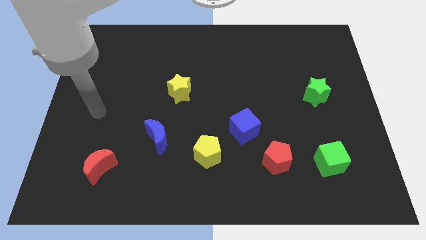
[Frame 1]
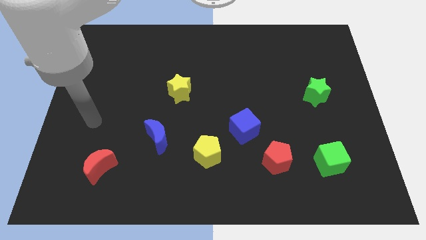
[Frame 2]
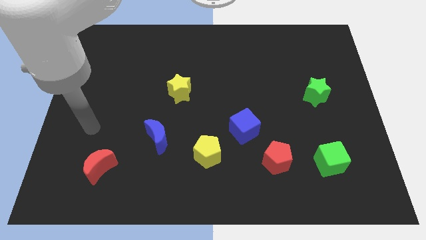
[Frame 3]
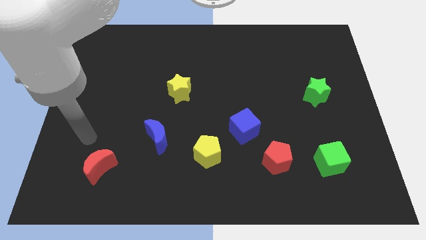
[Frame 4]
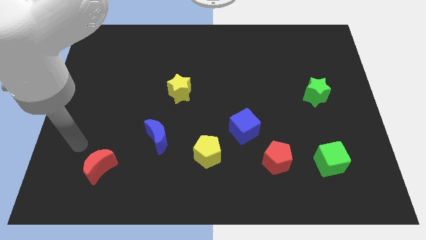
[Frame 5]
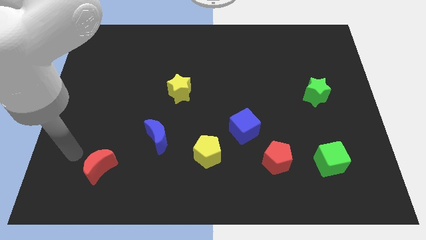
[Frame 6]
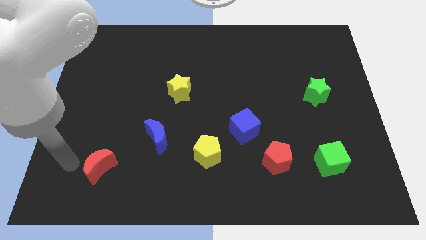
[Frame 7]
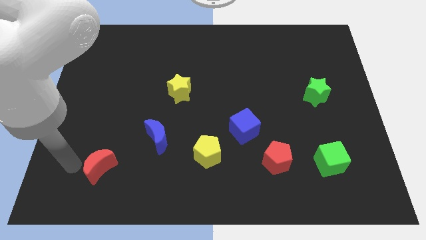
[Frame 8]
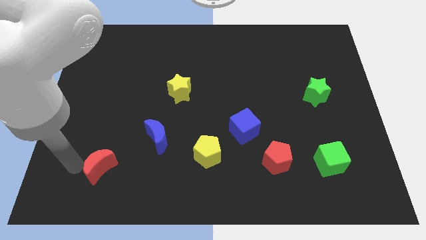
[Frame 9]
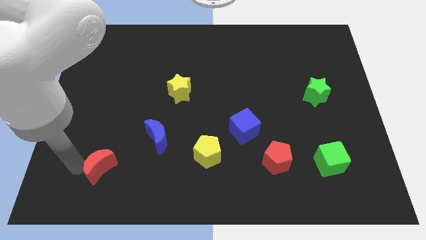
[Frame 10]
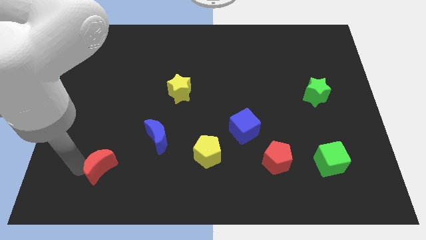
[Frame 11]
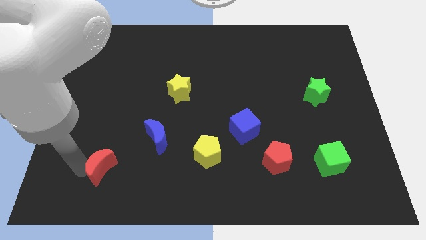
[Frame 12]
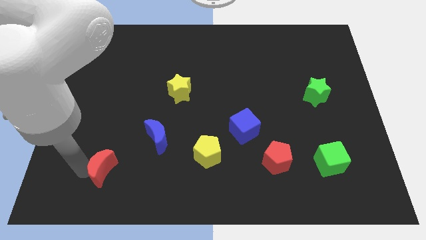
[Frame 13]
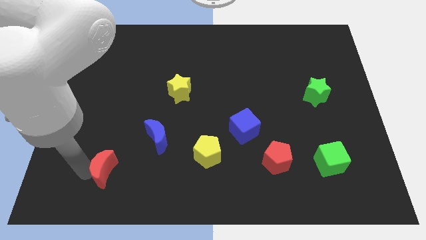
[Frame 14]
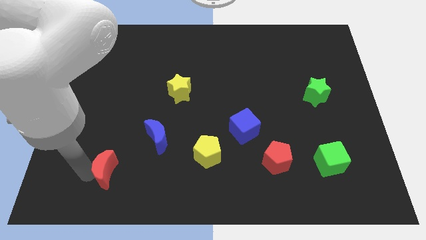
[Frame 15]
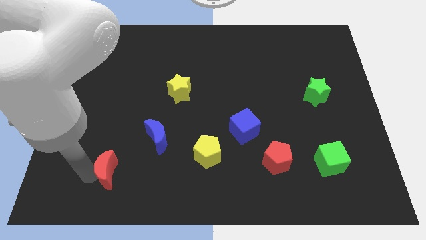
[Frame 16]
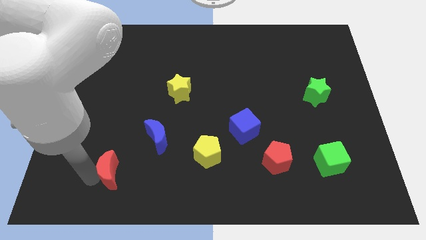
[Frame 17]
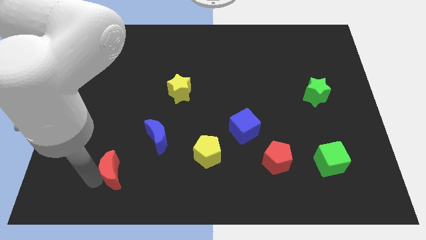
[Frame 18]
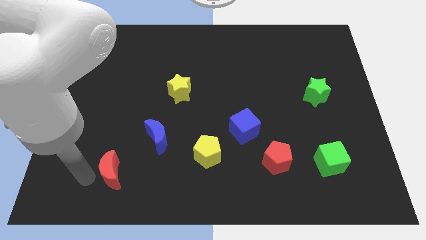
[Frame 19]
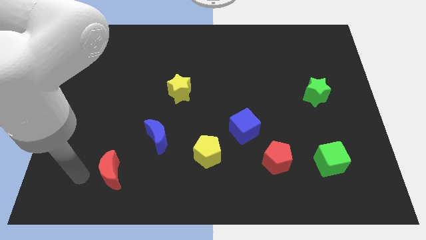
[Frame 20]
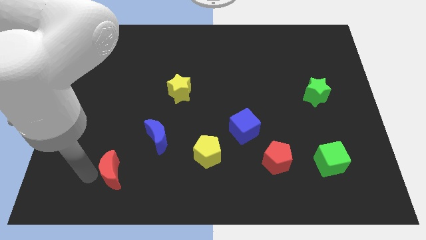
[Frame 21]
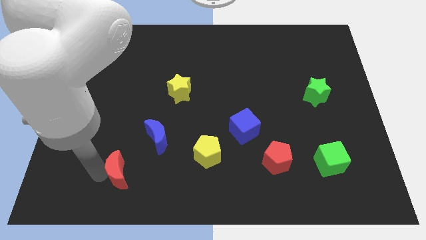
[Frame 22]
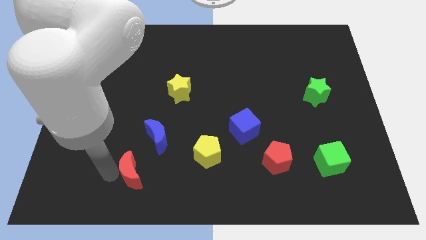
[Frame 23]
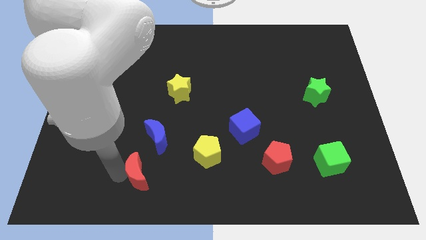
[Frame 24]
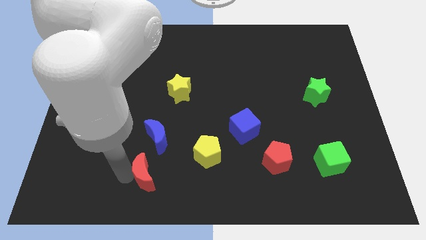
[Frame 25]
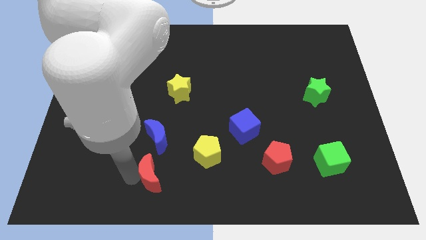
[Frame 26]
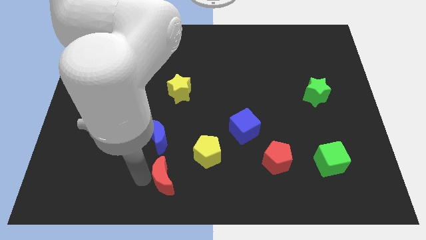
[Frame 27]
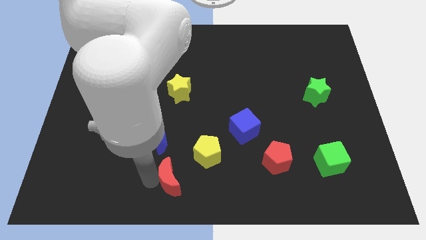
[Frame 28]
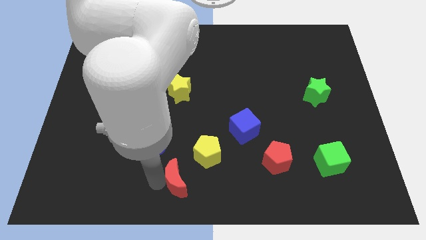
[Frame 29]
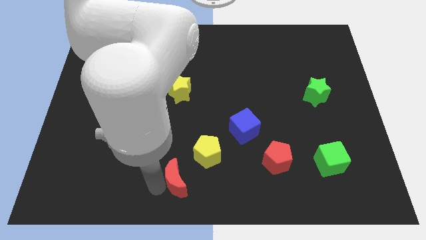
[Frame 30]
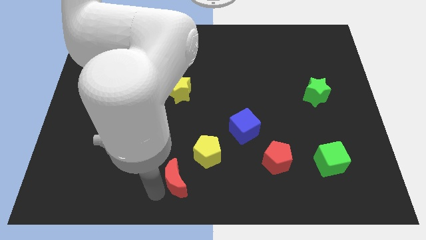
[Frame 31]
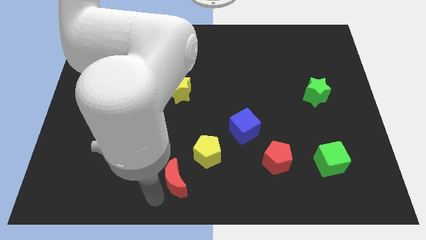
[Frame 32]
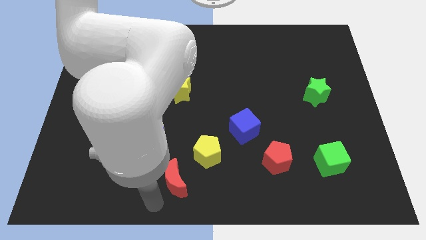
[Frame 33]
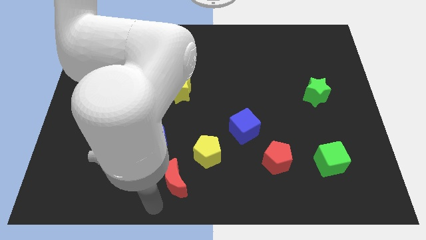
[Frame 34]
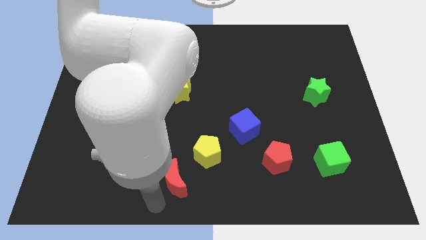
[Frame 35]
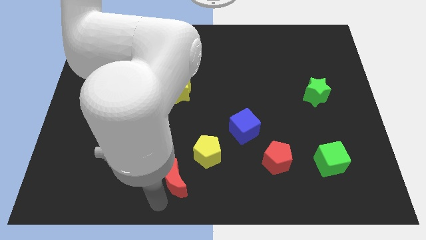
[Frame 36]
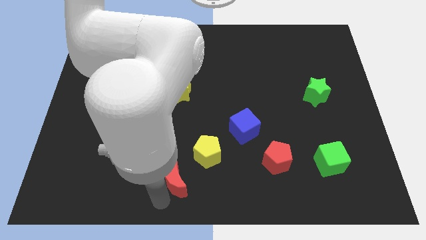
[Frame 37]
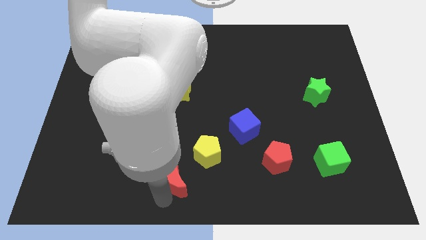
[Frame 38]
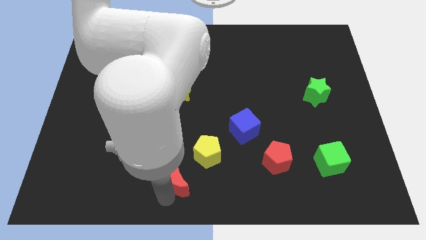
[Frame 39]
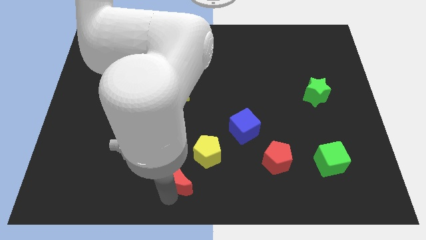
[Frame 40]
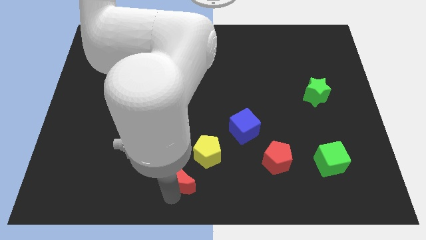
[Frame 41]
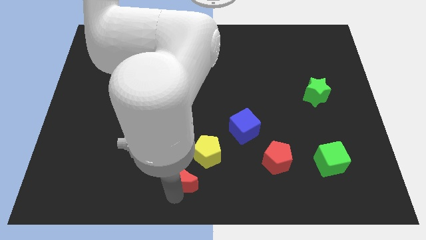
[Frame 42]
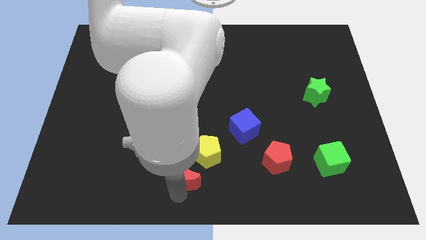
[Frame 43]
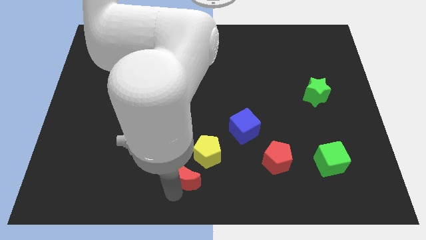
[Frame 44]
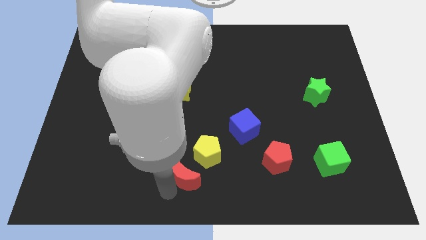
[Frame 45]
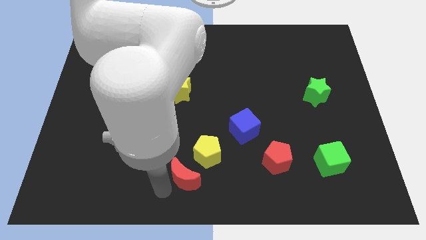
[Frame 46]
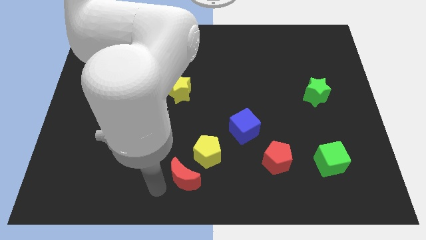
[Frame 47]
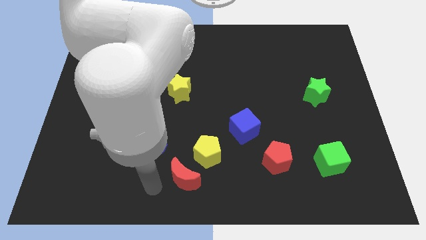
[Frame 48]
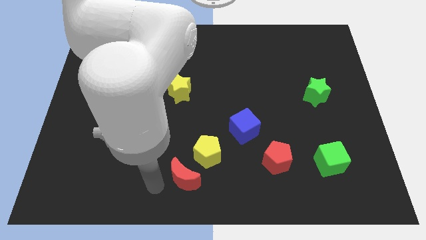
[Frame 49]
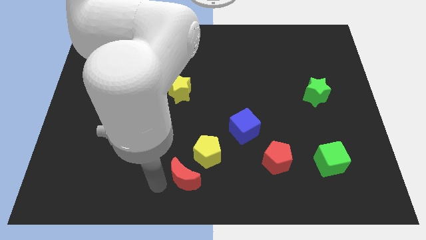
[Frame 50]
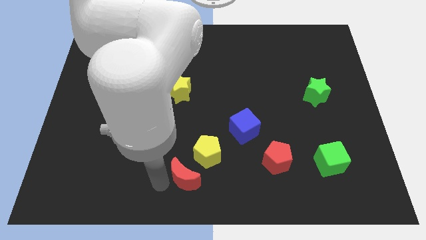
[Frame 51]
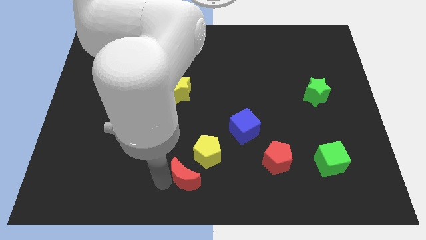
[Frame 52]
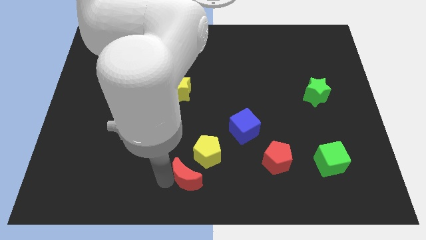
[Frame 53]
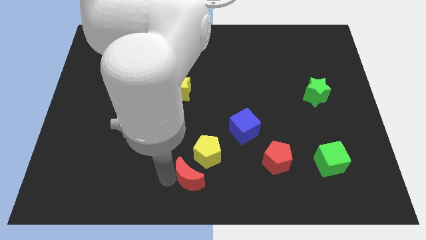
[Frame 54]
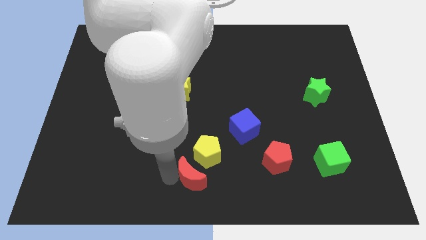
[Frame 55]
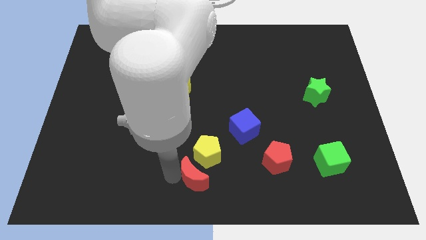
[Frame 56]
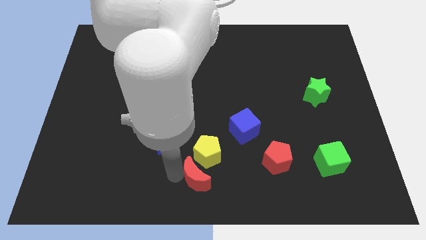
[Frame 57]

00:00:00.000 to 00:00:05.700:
slide the red moon to the right

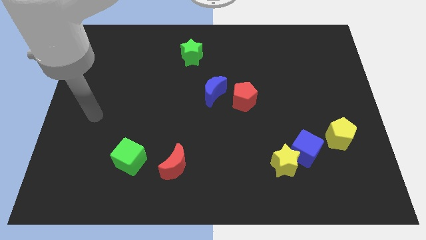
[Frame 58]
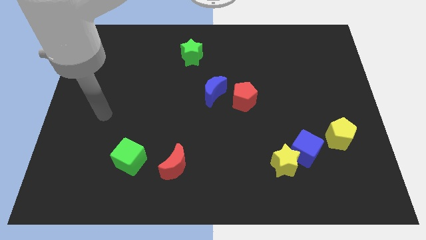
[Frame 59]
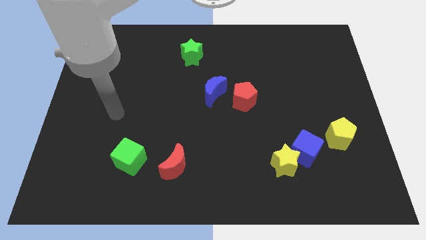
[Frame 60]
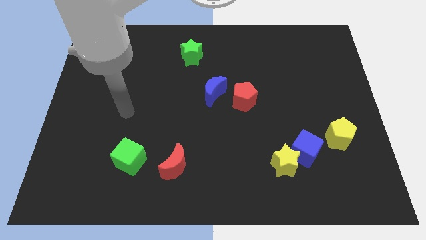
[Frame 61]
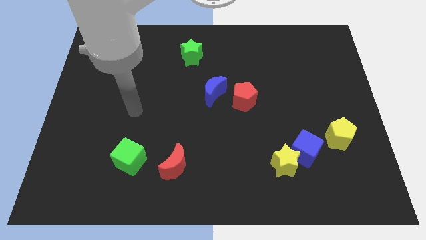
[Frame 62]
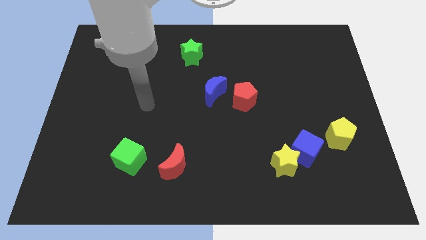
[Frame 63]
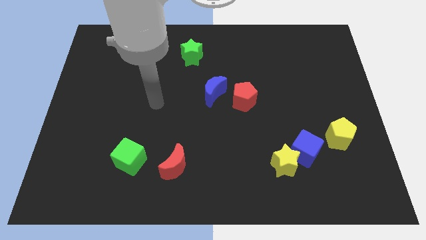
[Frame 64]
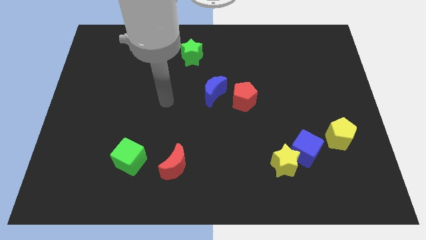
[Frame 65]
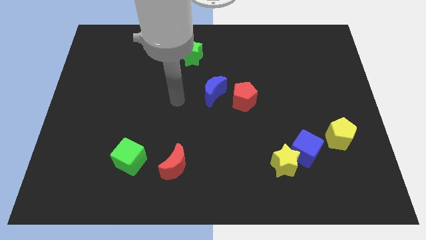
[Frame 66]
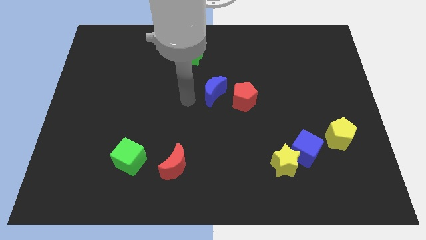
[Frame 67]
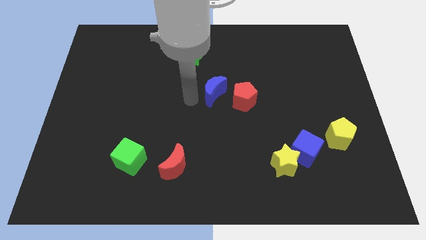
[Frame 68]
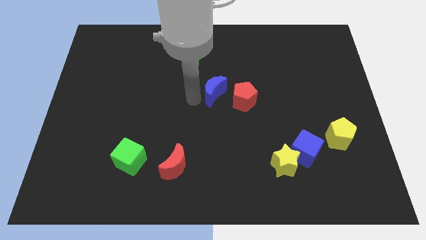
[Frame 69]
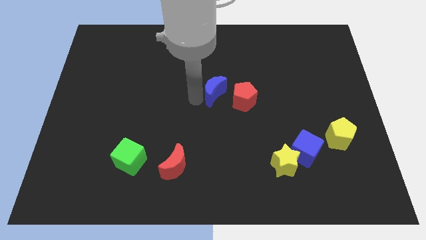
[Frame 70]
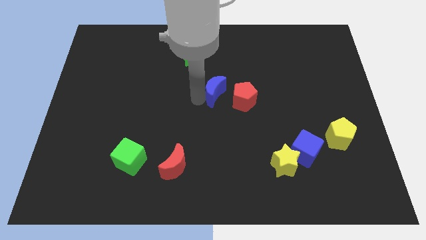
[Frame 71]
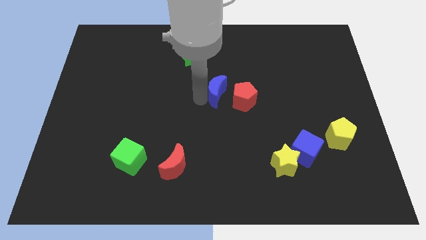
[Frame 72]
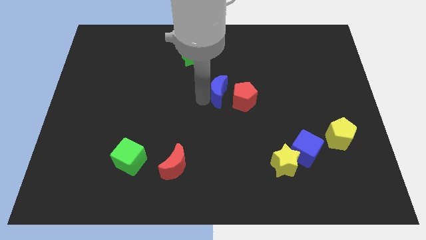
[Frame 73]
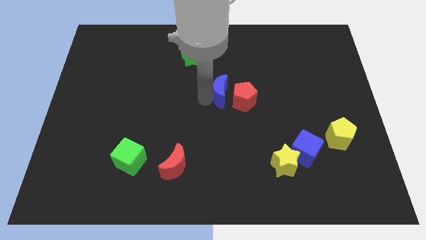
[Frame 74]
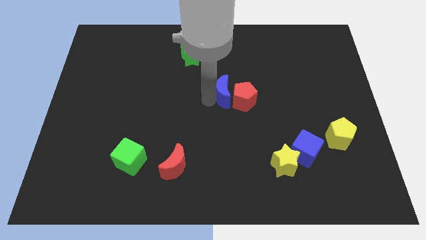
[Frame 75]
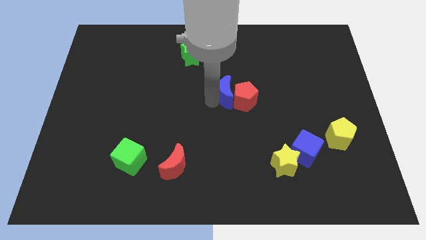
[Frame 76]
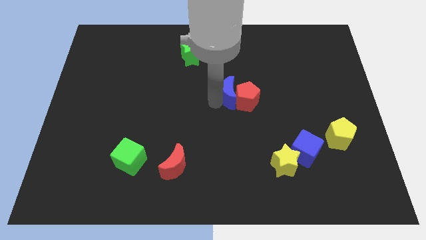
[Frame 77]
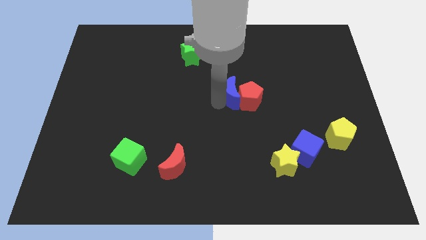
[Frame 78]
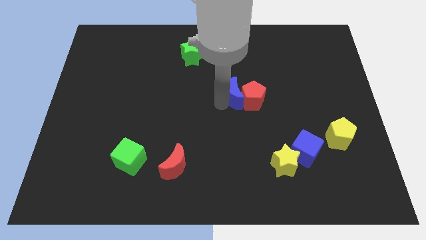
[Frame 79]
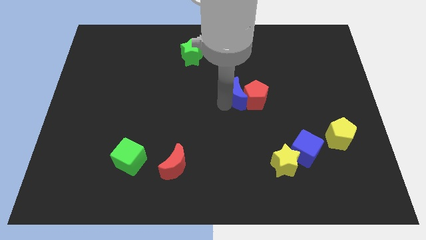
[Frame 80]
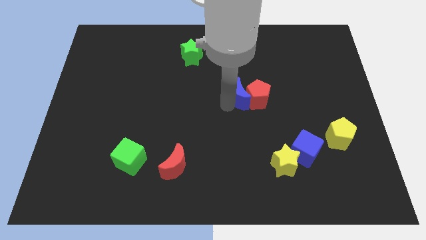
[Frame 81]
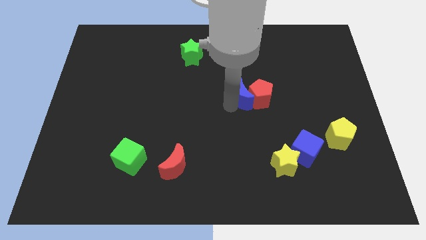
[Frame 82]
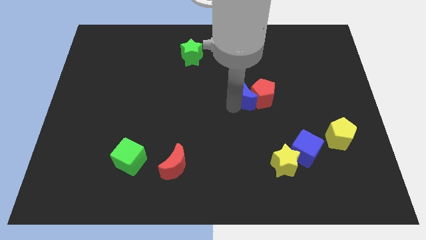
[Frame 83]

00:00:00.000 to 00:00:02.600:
push the blue moon a bit right
